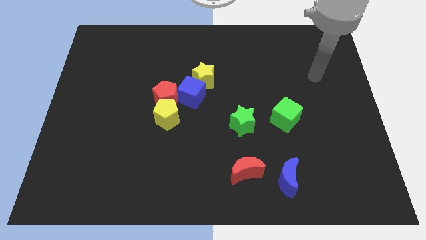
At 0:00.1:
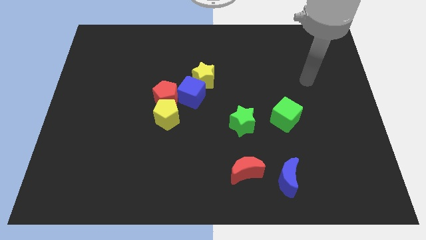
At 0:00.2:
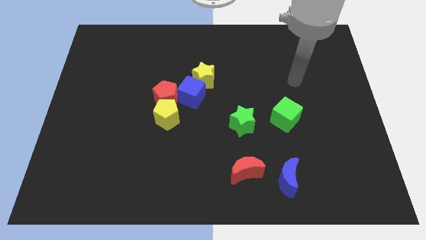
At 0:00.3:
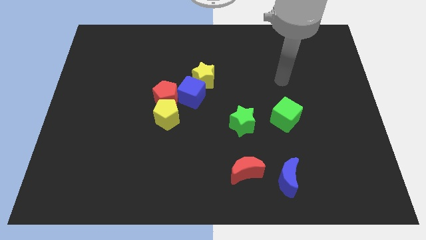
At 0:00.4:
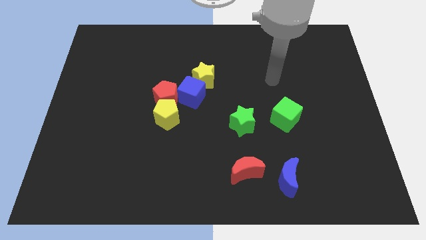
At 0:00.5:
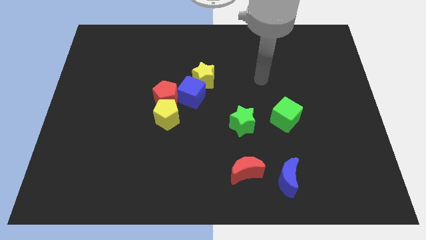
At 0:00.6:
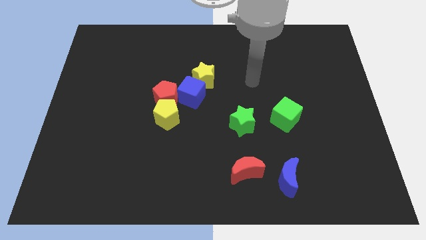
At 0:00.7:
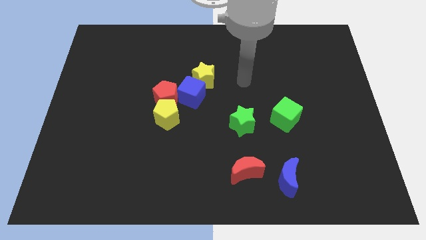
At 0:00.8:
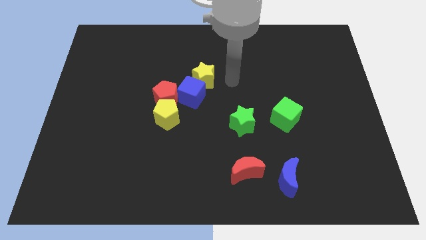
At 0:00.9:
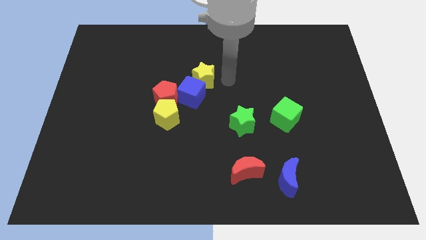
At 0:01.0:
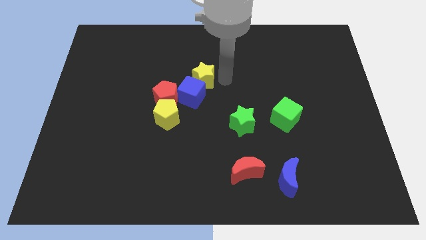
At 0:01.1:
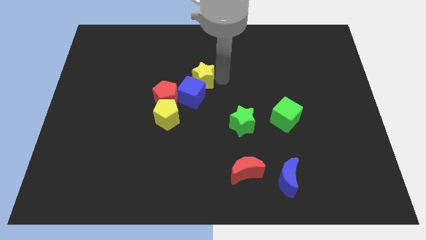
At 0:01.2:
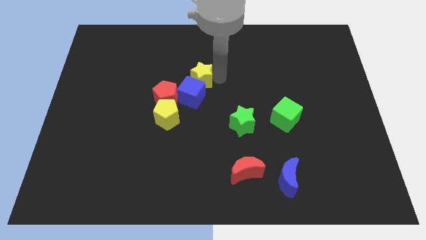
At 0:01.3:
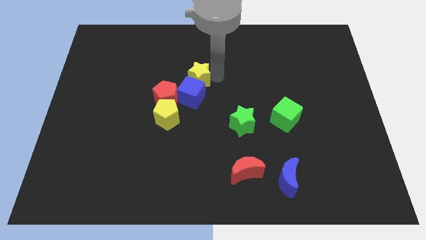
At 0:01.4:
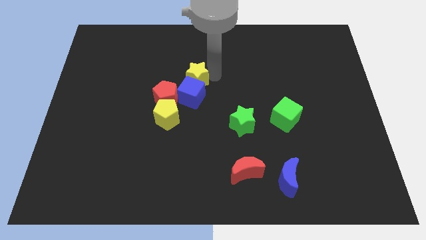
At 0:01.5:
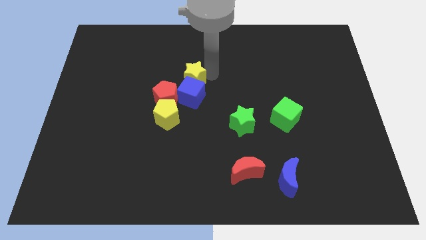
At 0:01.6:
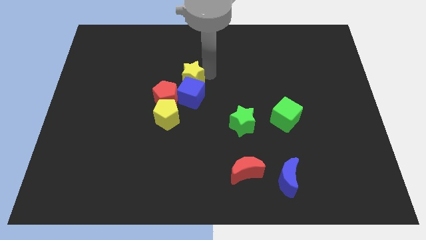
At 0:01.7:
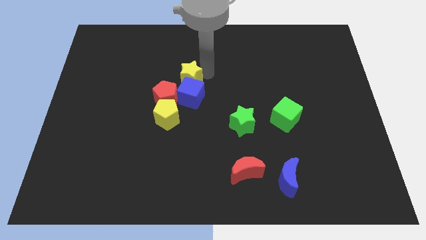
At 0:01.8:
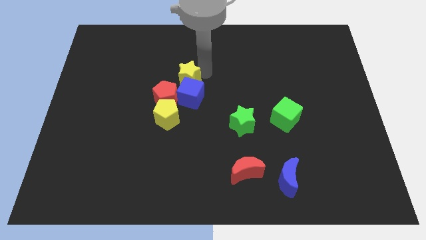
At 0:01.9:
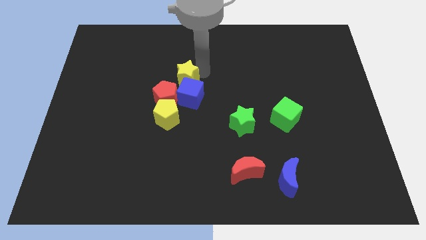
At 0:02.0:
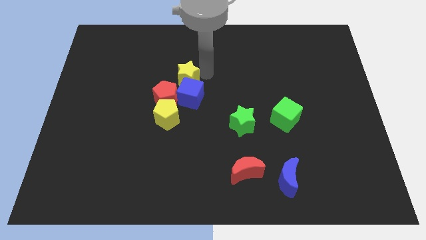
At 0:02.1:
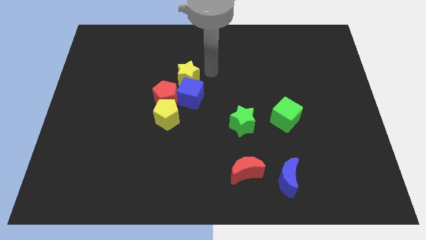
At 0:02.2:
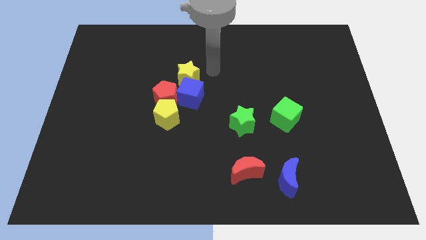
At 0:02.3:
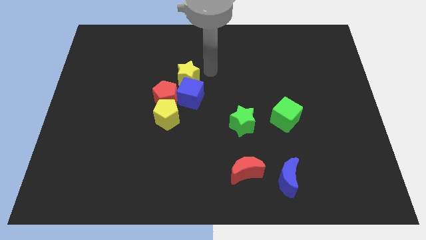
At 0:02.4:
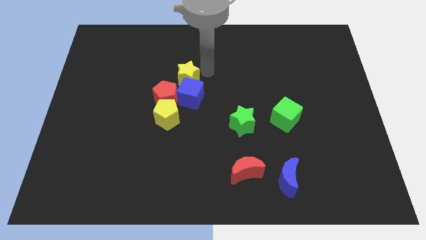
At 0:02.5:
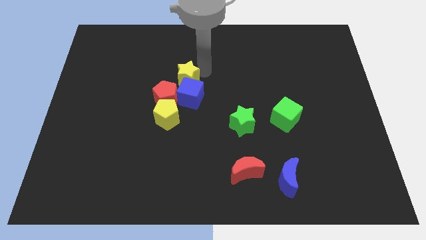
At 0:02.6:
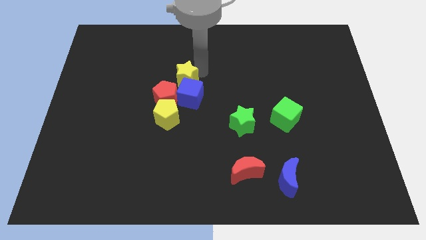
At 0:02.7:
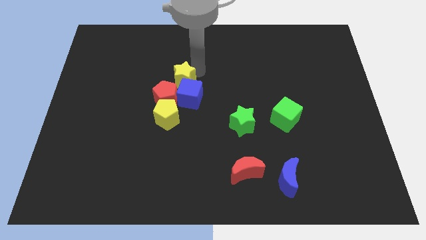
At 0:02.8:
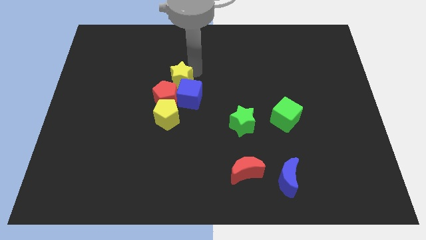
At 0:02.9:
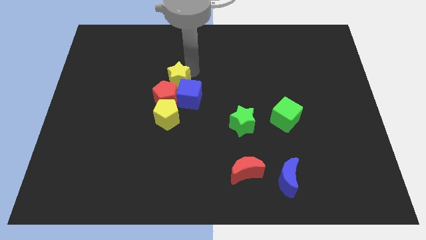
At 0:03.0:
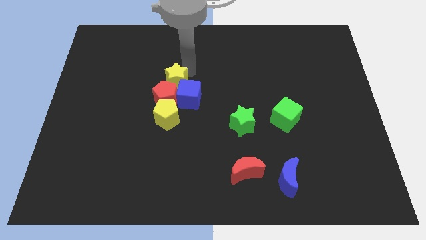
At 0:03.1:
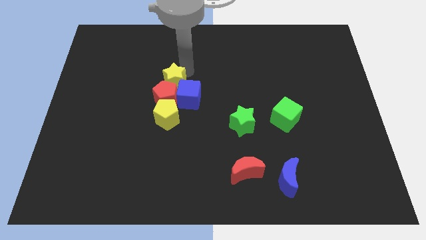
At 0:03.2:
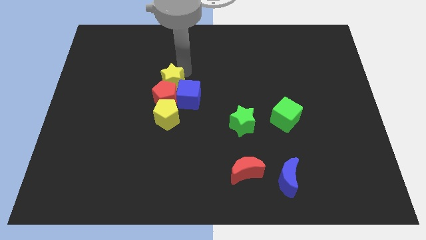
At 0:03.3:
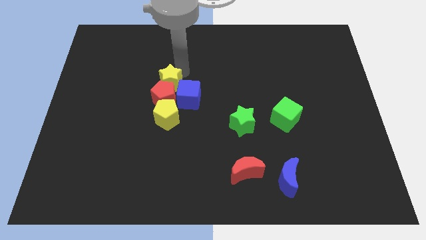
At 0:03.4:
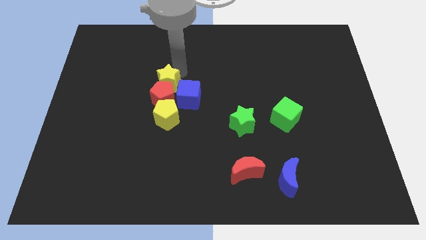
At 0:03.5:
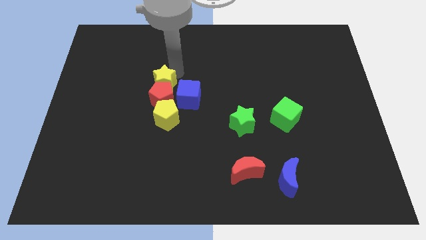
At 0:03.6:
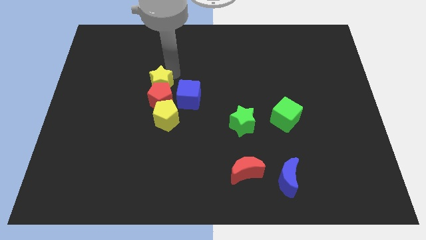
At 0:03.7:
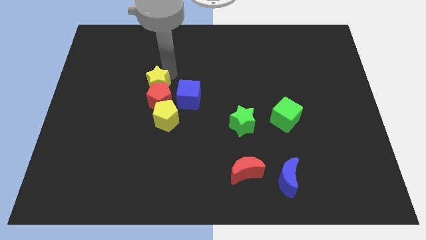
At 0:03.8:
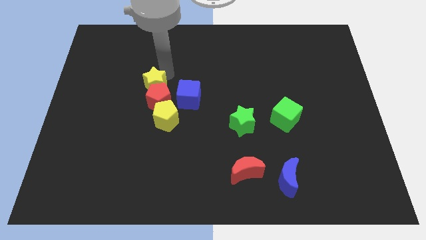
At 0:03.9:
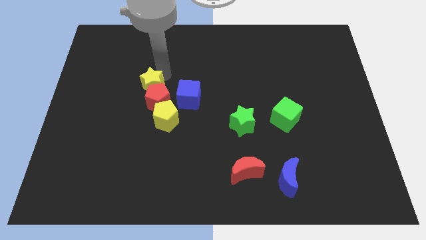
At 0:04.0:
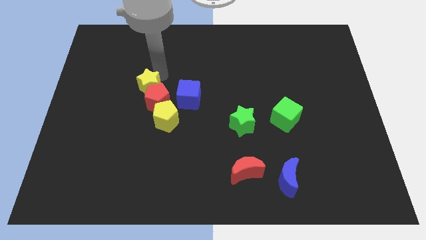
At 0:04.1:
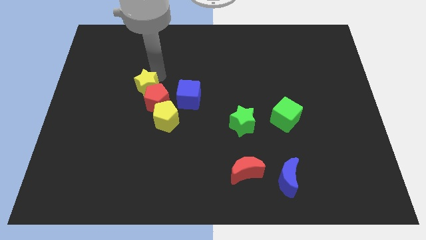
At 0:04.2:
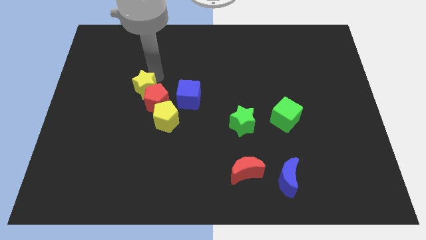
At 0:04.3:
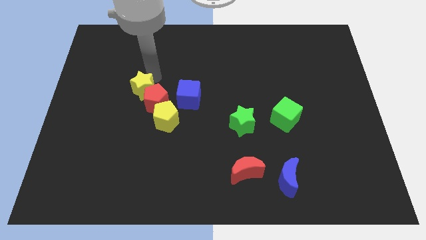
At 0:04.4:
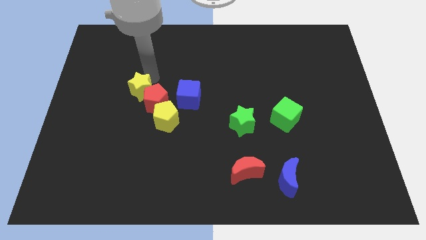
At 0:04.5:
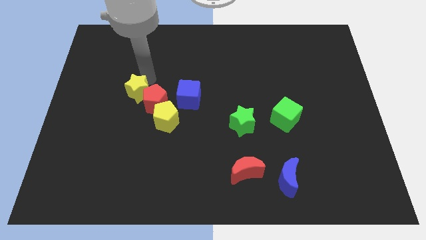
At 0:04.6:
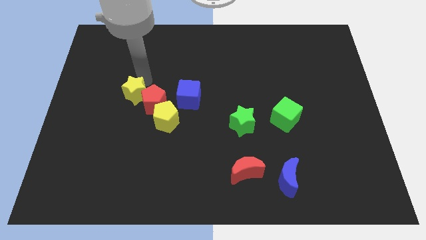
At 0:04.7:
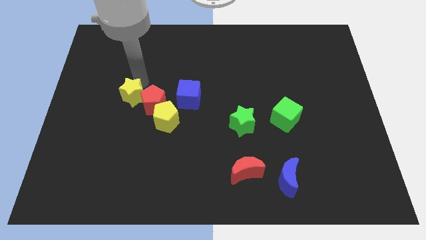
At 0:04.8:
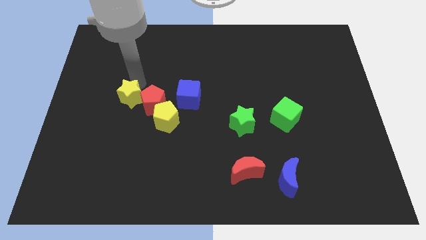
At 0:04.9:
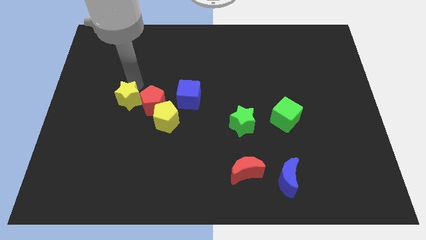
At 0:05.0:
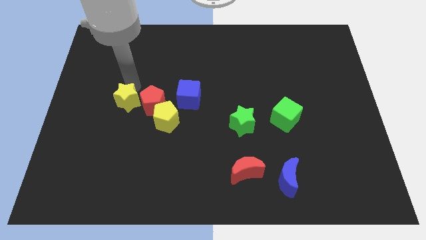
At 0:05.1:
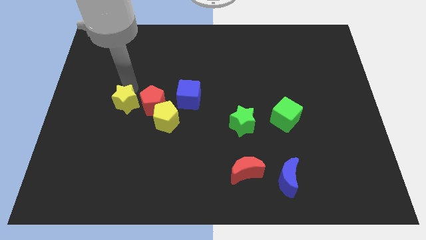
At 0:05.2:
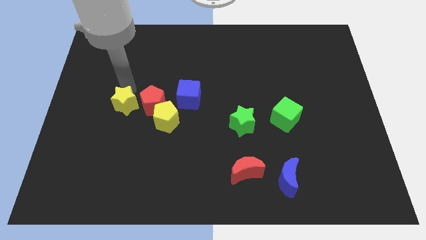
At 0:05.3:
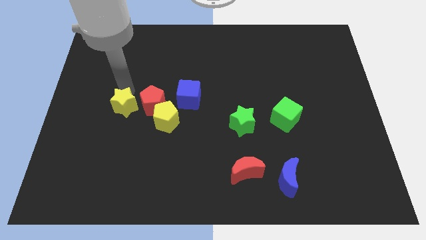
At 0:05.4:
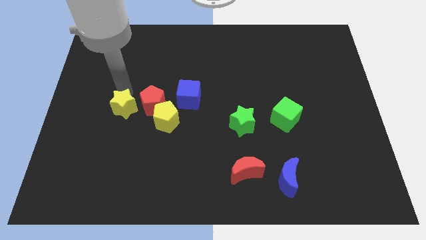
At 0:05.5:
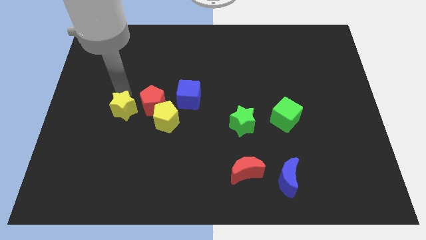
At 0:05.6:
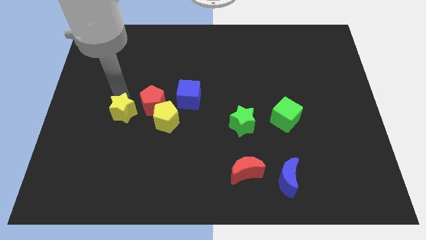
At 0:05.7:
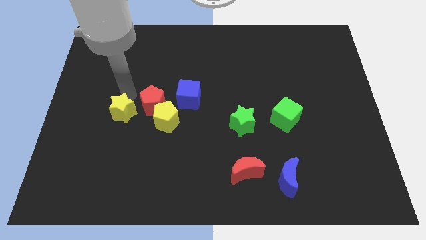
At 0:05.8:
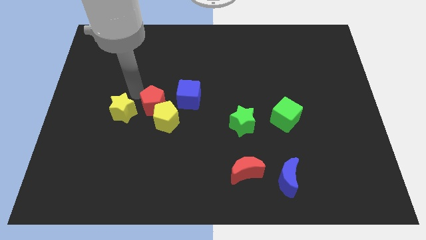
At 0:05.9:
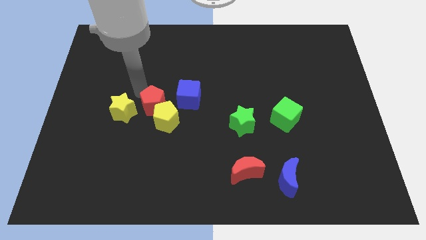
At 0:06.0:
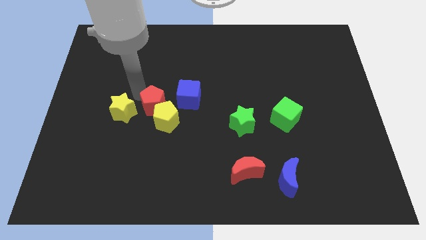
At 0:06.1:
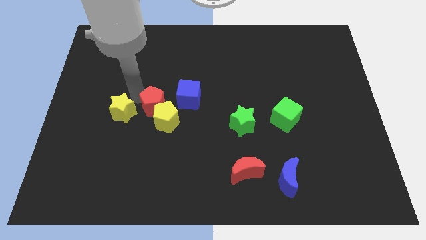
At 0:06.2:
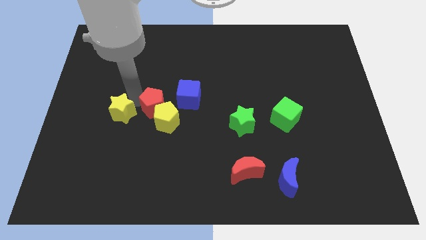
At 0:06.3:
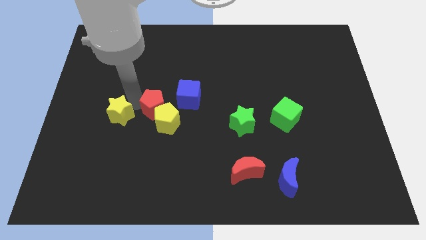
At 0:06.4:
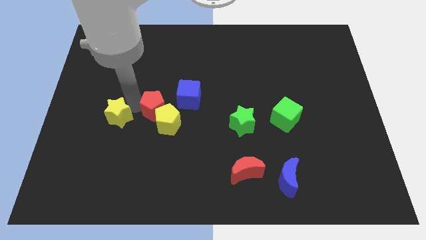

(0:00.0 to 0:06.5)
push the yellow star downwards and left diagonally

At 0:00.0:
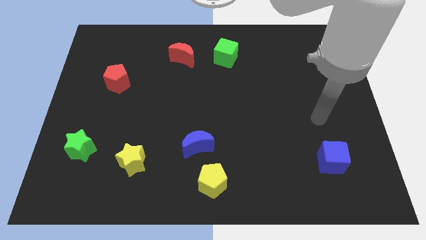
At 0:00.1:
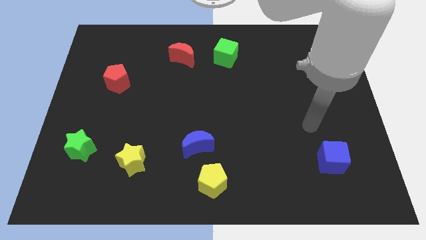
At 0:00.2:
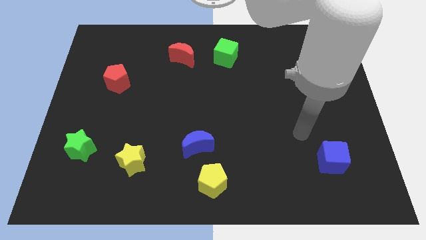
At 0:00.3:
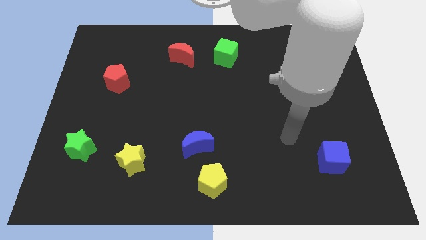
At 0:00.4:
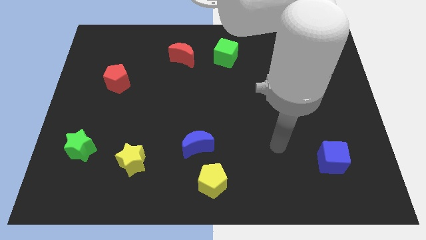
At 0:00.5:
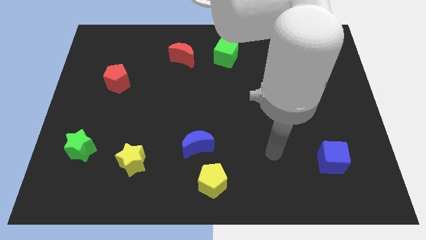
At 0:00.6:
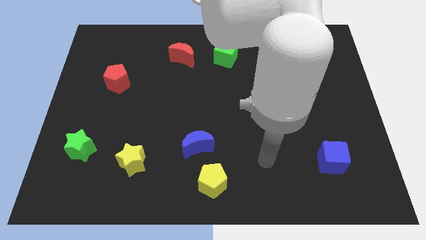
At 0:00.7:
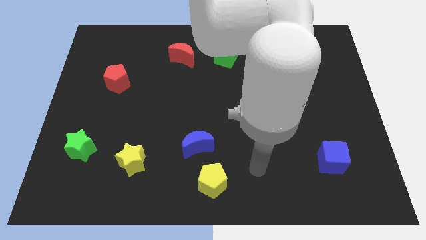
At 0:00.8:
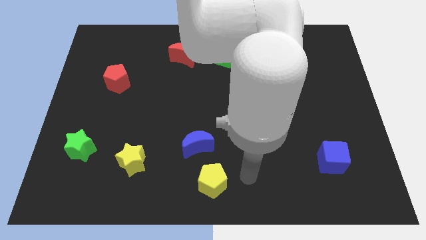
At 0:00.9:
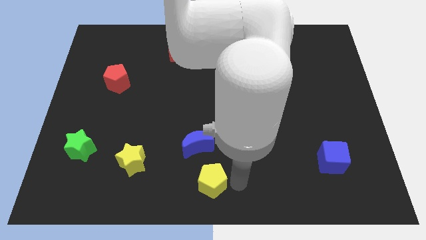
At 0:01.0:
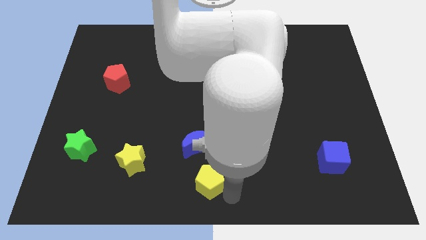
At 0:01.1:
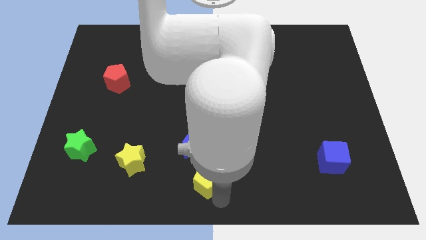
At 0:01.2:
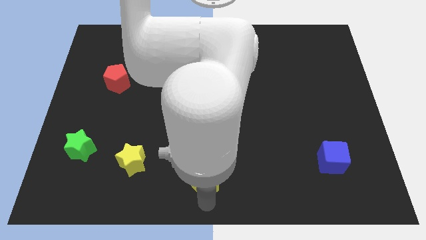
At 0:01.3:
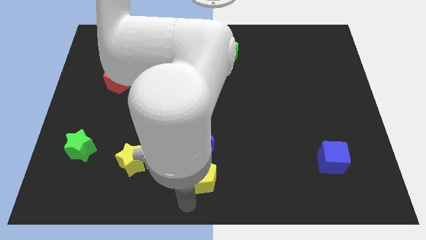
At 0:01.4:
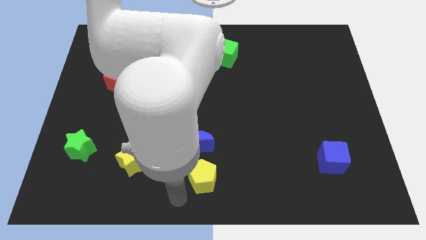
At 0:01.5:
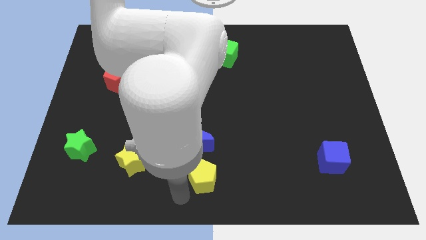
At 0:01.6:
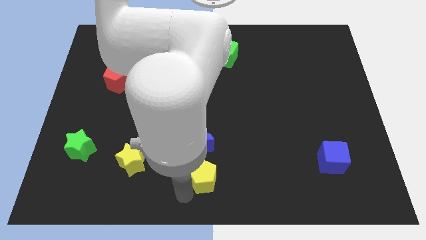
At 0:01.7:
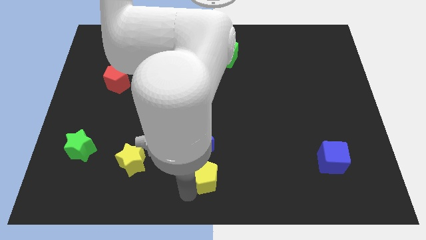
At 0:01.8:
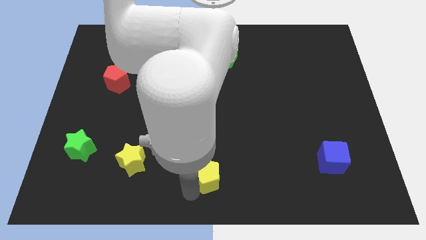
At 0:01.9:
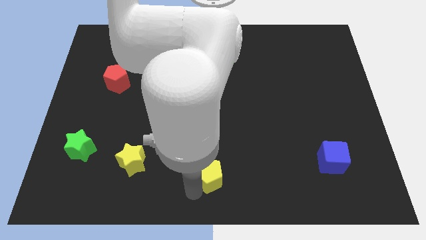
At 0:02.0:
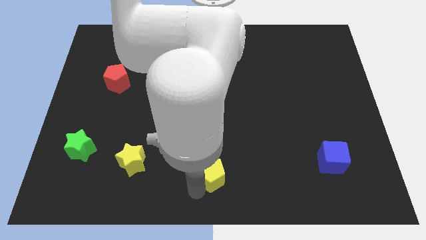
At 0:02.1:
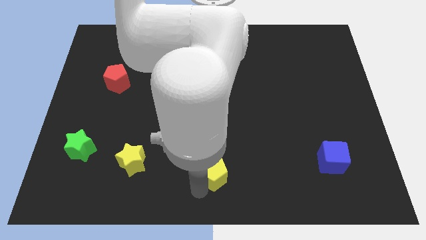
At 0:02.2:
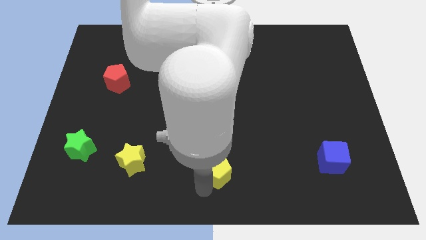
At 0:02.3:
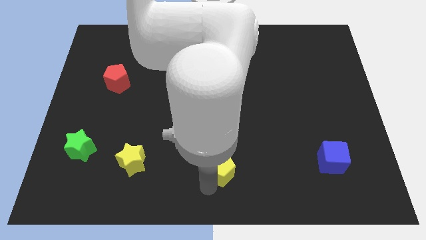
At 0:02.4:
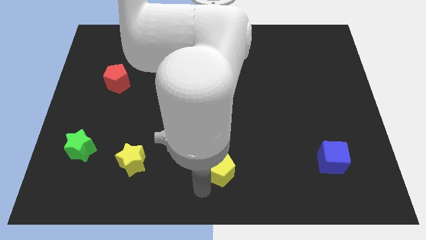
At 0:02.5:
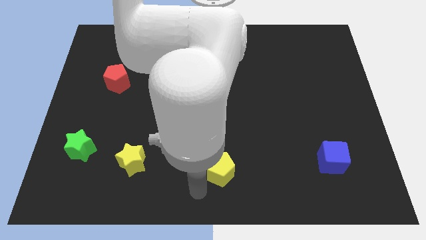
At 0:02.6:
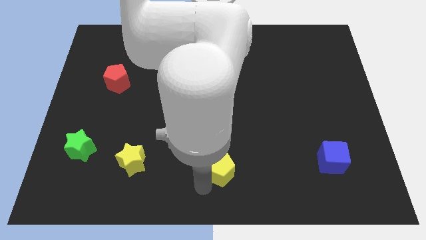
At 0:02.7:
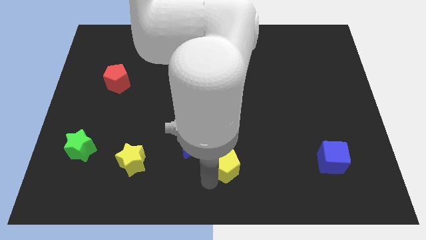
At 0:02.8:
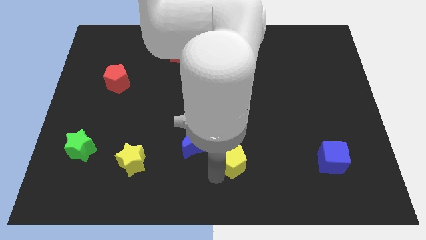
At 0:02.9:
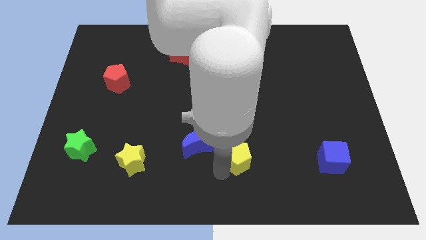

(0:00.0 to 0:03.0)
push the yellow pentagon diagonally upwards and right a little bit
